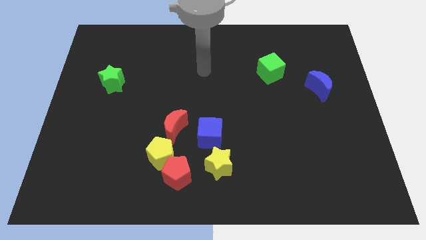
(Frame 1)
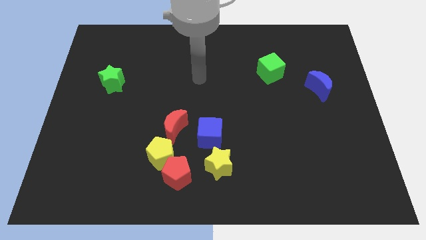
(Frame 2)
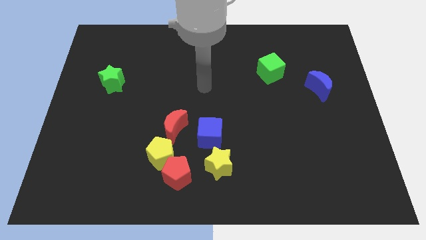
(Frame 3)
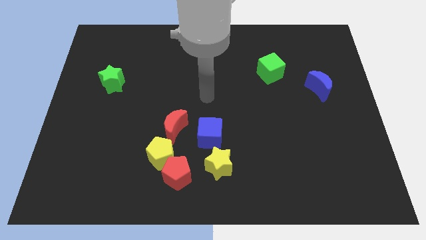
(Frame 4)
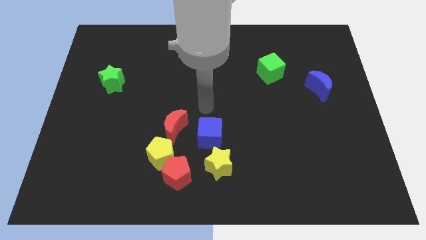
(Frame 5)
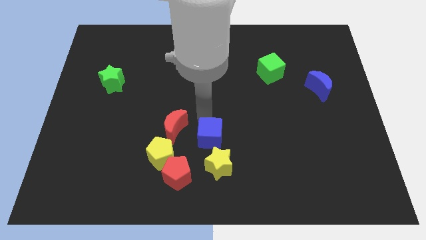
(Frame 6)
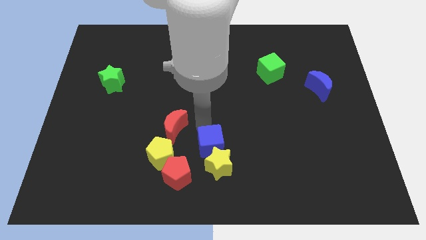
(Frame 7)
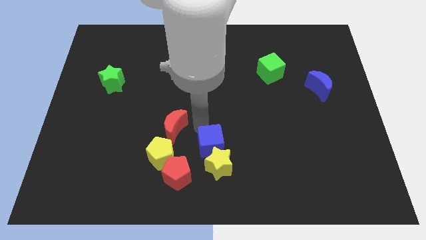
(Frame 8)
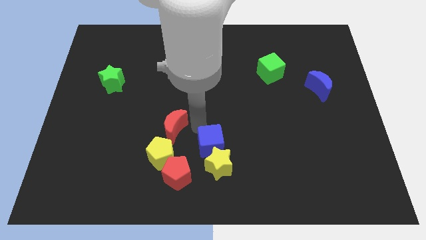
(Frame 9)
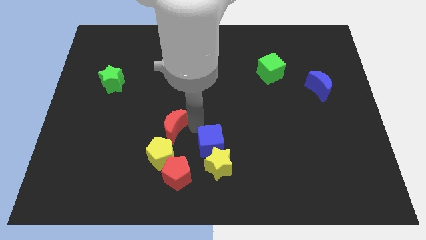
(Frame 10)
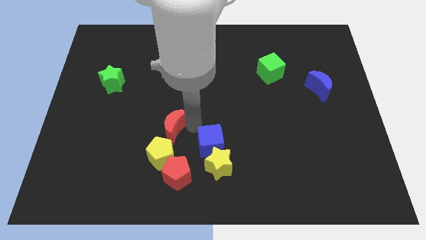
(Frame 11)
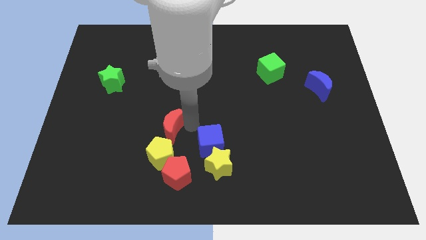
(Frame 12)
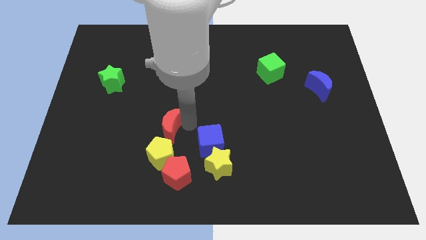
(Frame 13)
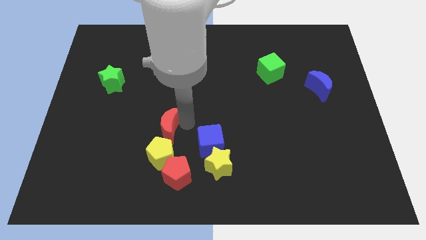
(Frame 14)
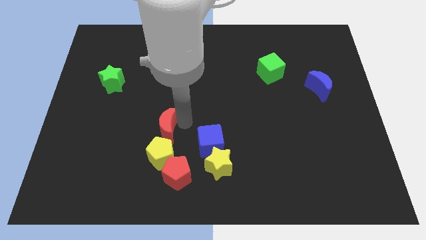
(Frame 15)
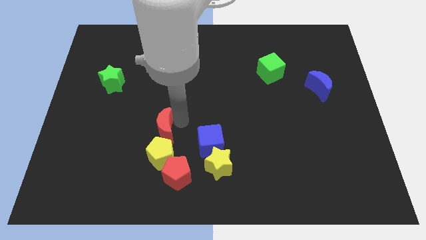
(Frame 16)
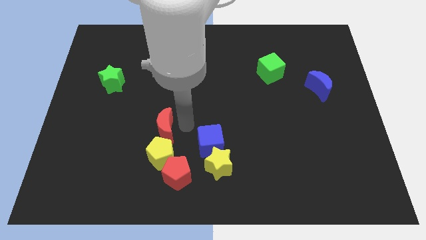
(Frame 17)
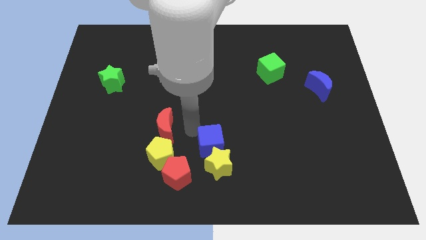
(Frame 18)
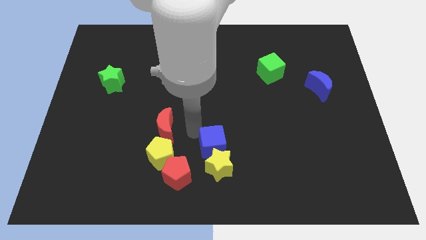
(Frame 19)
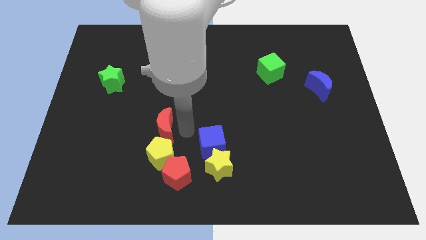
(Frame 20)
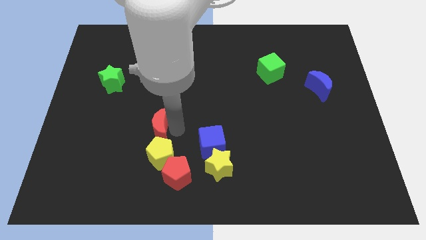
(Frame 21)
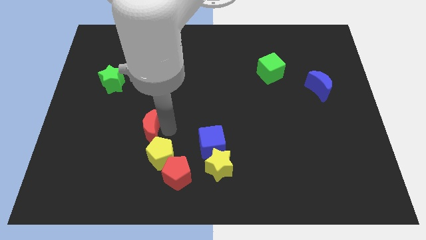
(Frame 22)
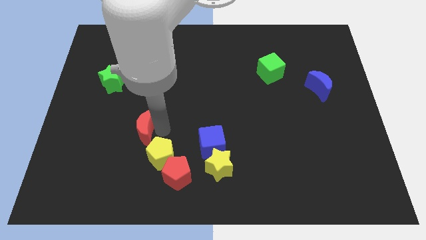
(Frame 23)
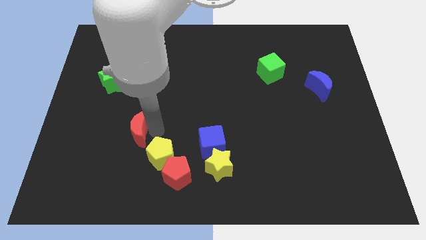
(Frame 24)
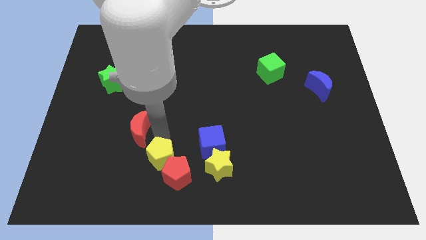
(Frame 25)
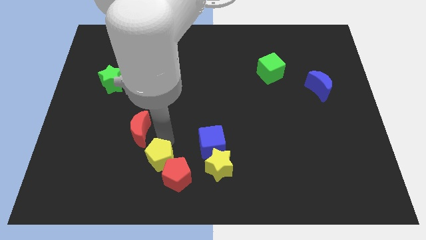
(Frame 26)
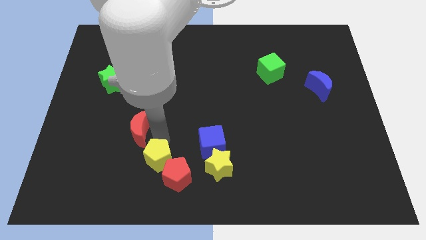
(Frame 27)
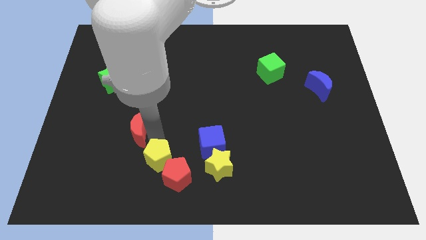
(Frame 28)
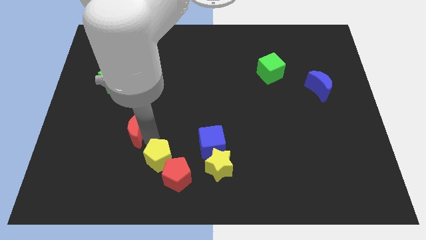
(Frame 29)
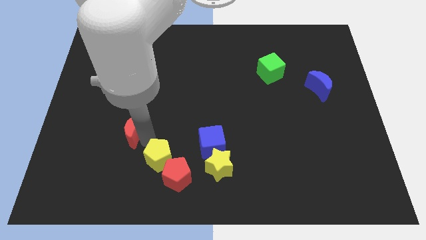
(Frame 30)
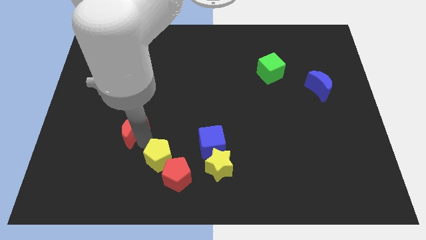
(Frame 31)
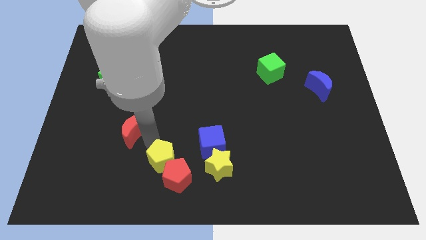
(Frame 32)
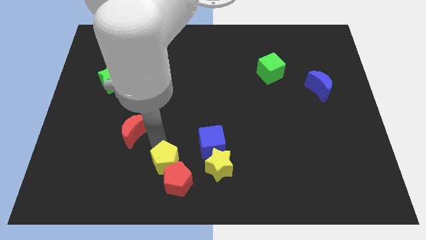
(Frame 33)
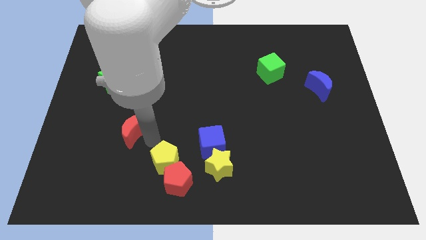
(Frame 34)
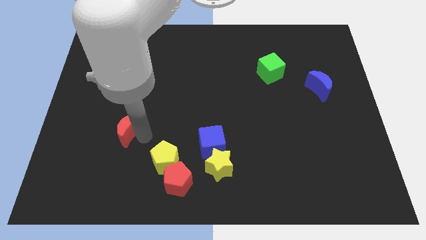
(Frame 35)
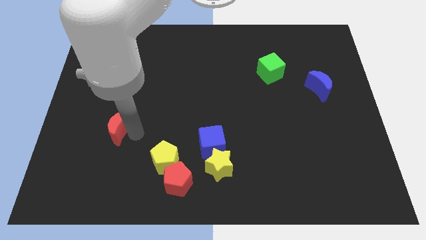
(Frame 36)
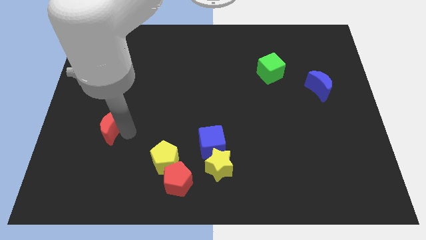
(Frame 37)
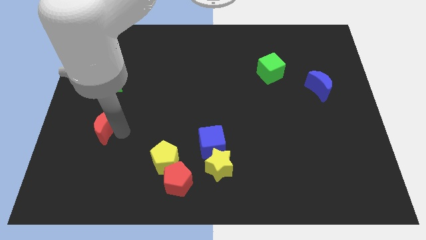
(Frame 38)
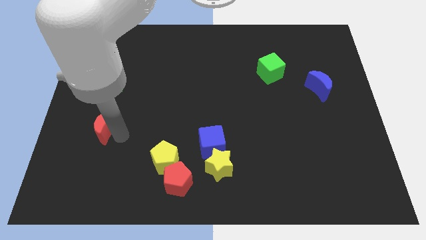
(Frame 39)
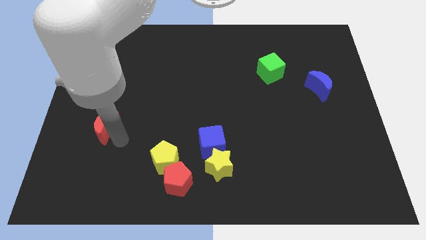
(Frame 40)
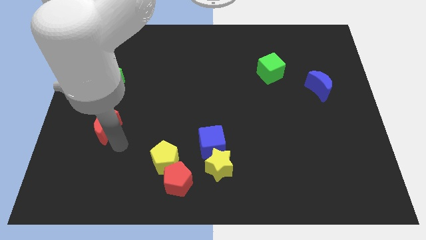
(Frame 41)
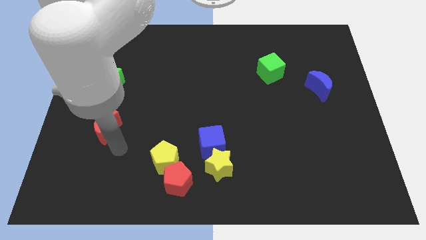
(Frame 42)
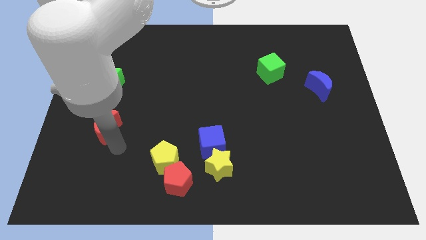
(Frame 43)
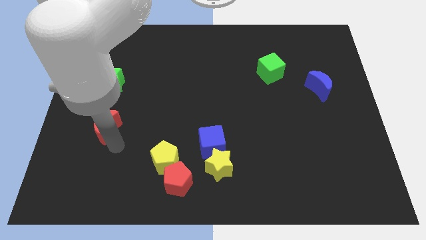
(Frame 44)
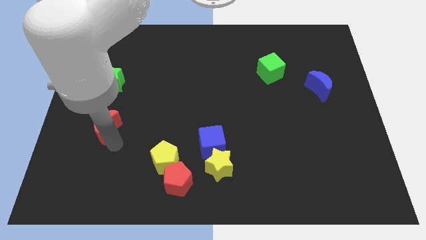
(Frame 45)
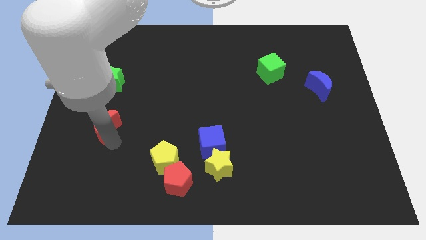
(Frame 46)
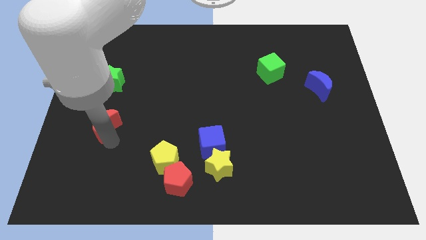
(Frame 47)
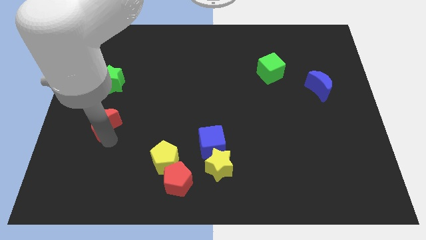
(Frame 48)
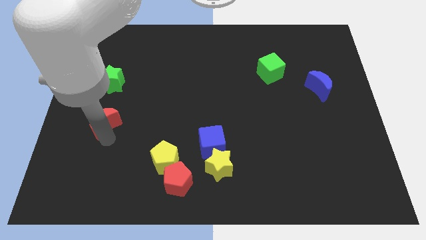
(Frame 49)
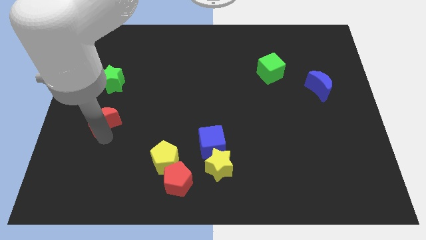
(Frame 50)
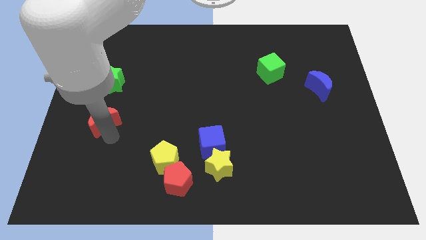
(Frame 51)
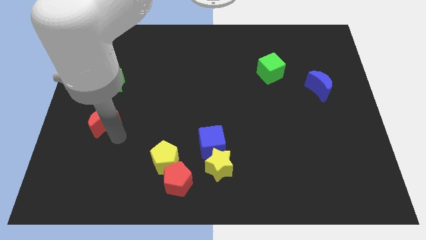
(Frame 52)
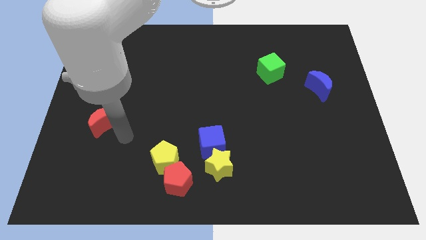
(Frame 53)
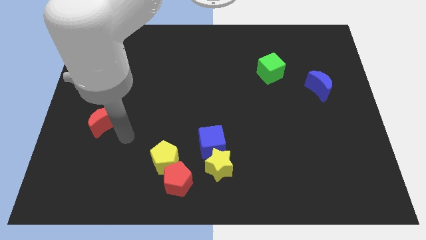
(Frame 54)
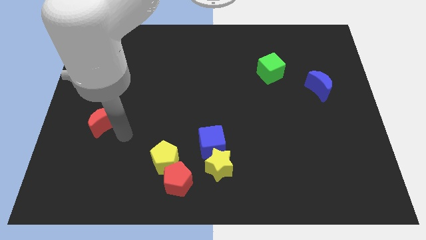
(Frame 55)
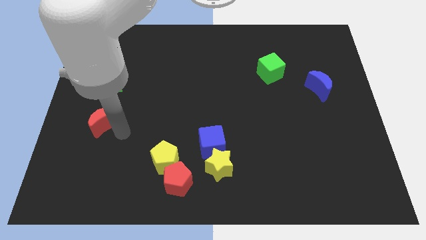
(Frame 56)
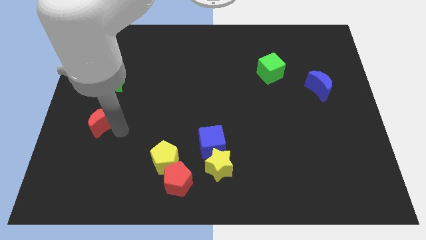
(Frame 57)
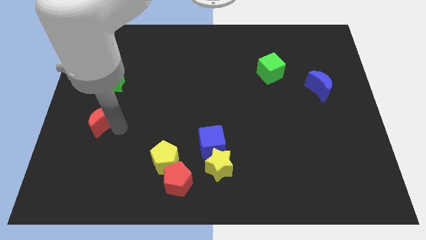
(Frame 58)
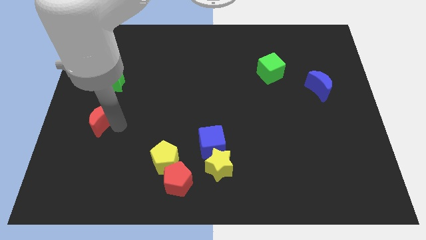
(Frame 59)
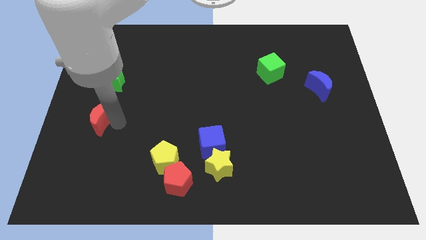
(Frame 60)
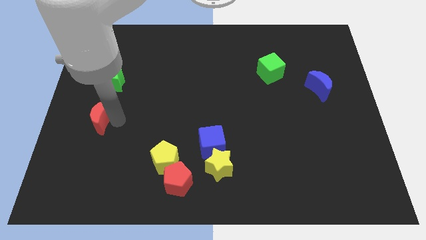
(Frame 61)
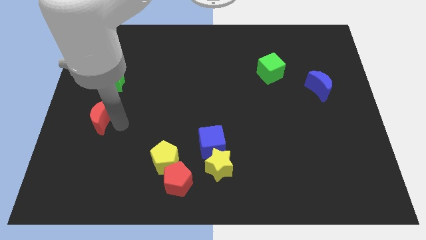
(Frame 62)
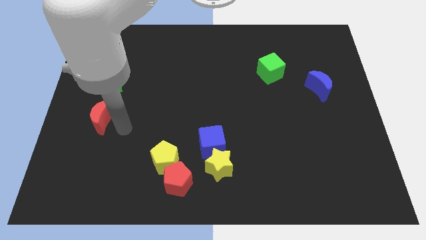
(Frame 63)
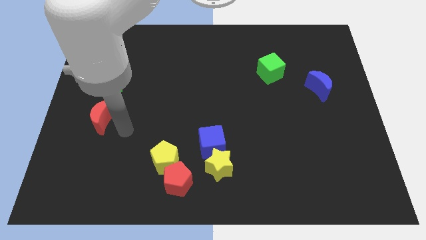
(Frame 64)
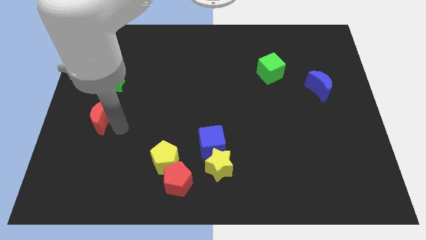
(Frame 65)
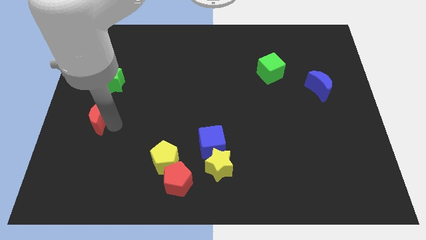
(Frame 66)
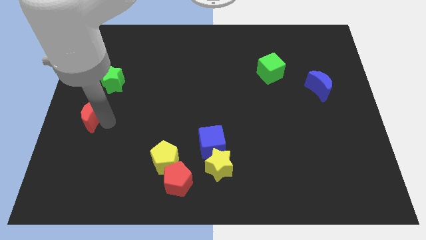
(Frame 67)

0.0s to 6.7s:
put the red moon to the center left
